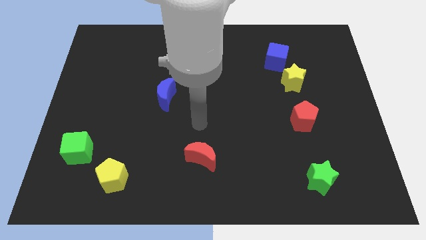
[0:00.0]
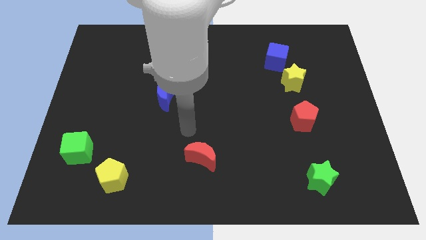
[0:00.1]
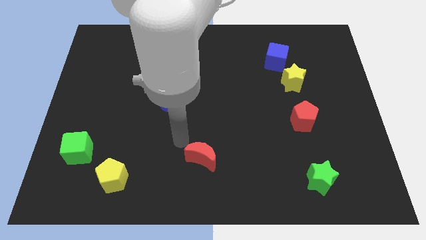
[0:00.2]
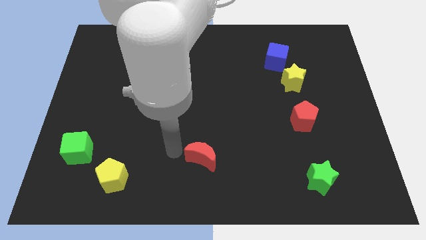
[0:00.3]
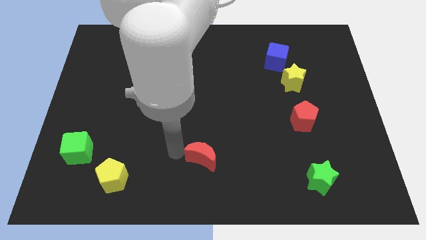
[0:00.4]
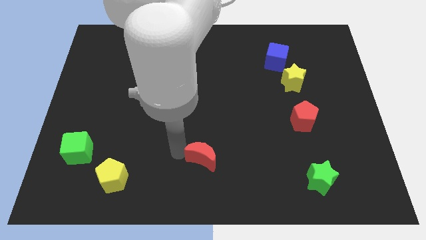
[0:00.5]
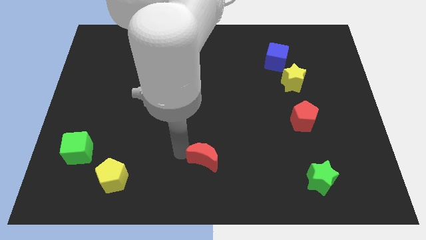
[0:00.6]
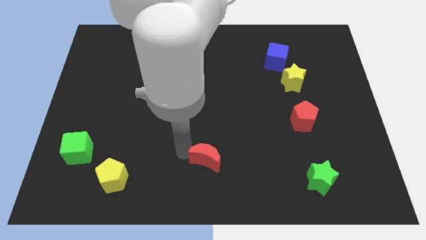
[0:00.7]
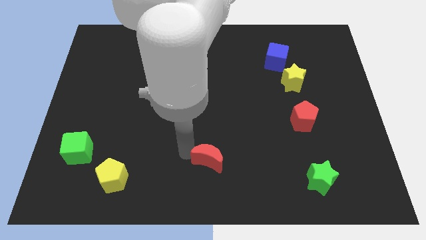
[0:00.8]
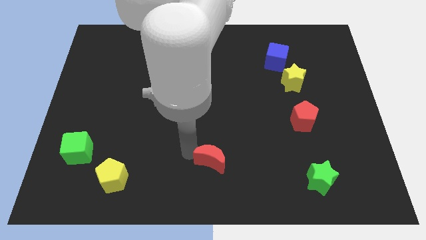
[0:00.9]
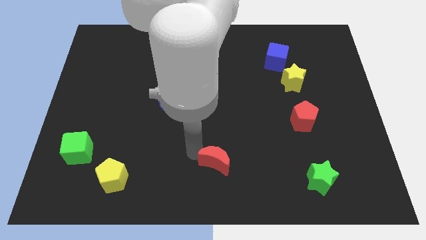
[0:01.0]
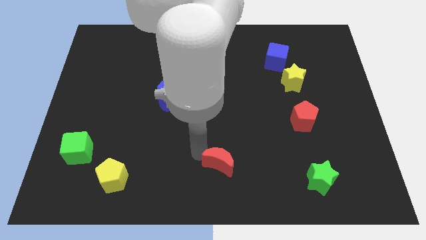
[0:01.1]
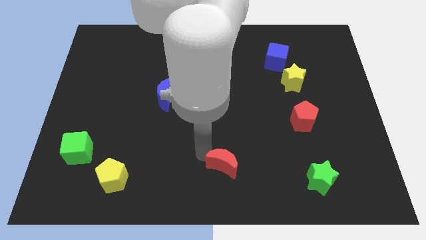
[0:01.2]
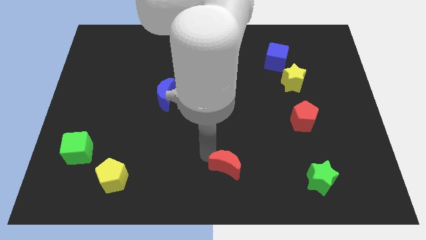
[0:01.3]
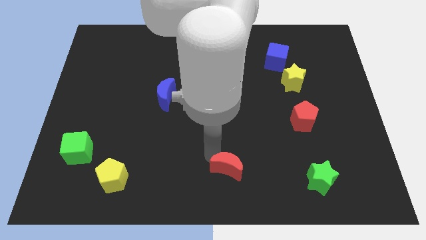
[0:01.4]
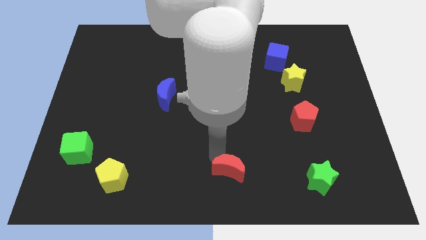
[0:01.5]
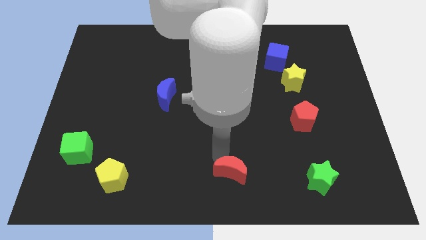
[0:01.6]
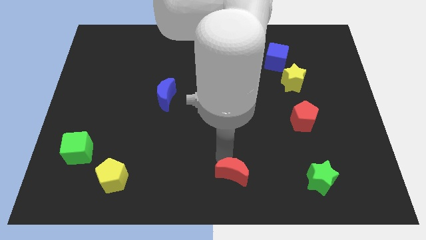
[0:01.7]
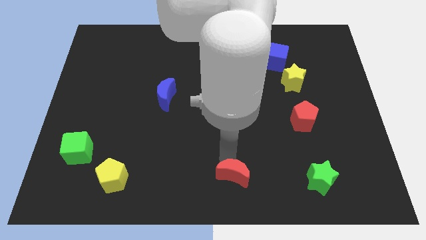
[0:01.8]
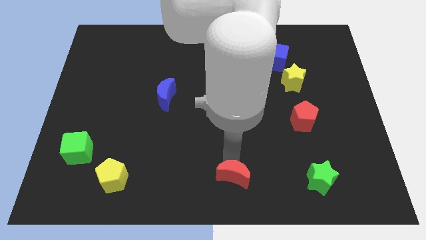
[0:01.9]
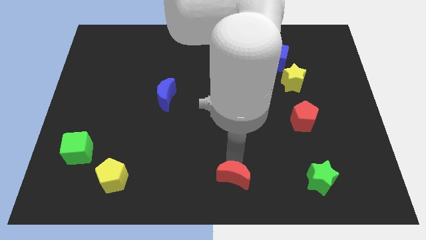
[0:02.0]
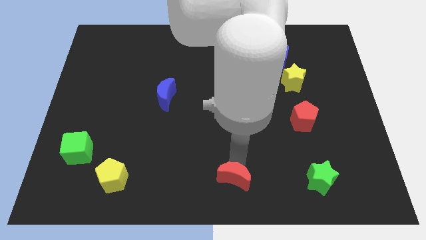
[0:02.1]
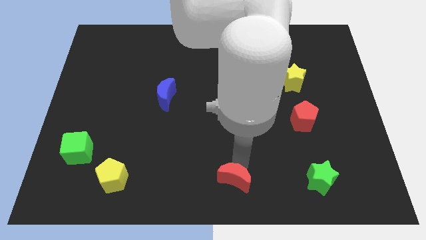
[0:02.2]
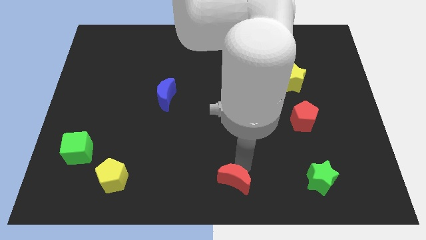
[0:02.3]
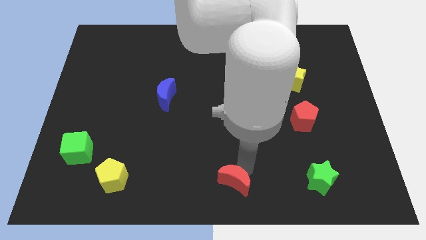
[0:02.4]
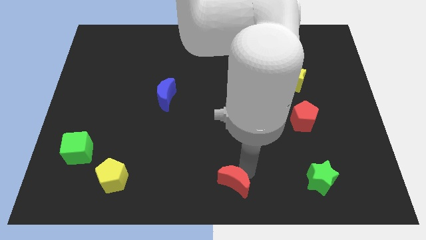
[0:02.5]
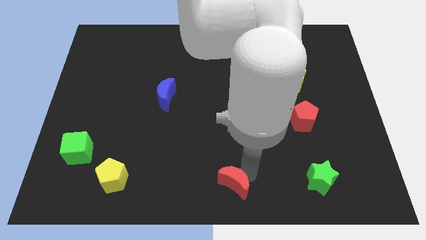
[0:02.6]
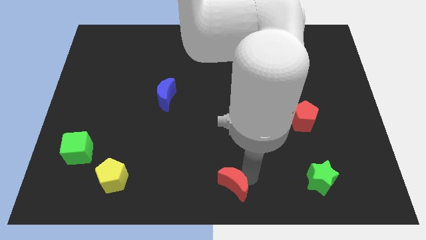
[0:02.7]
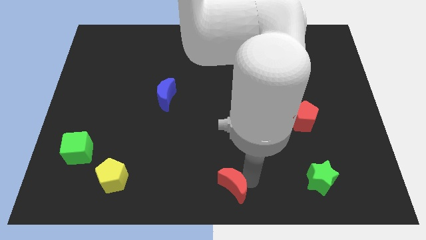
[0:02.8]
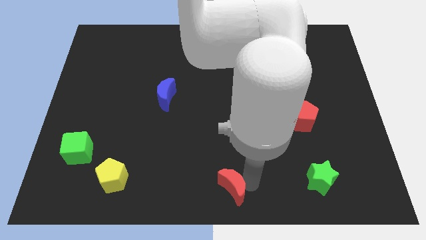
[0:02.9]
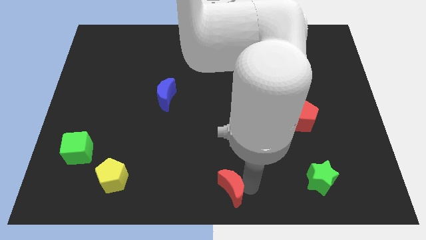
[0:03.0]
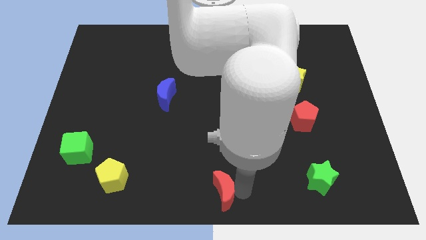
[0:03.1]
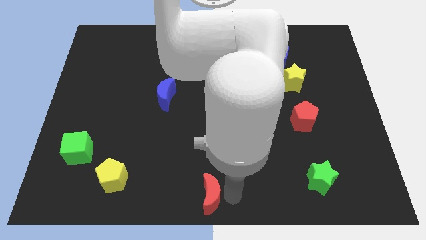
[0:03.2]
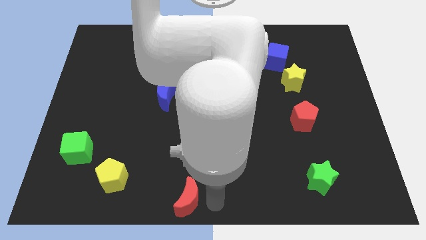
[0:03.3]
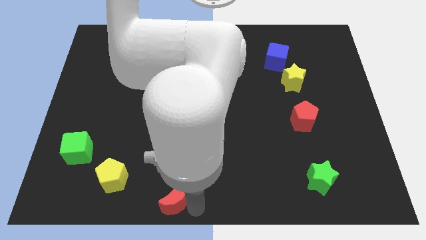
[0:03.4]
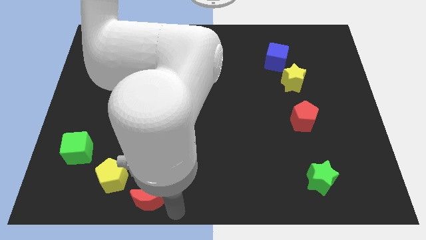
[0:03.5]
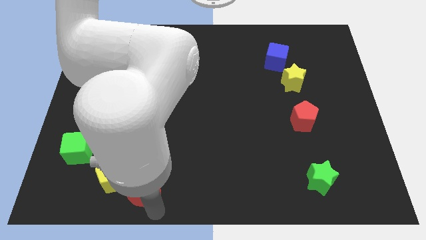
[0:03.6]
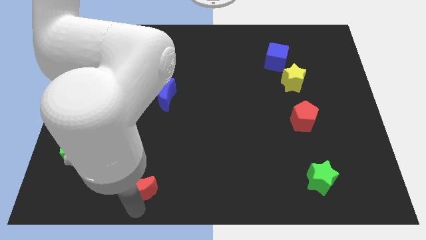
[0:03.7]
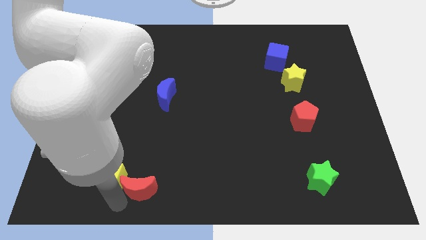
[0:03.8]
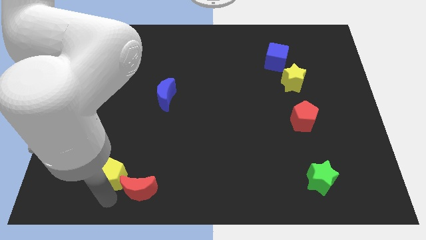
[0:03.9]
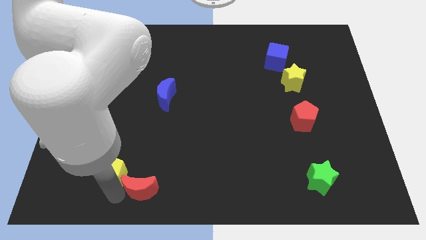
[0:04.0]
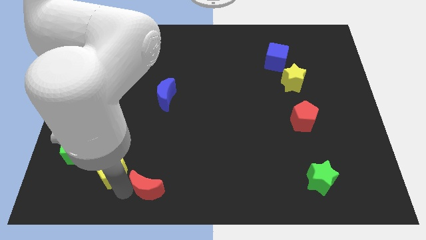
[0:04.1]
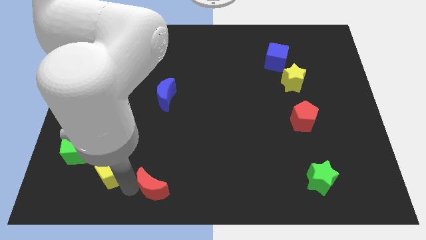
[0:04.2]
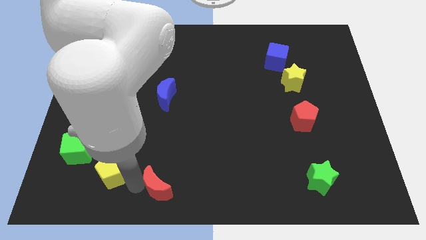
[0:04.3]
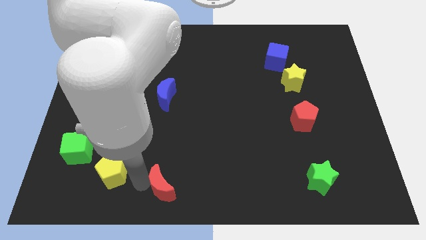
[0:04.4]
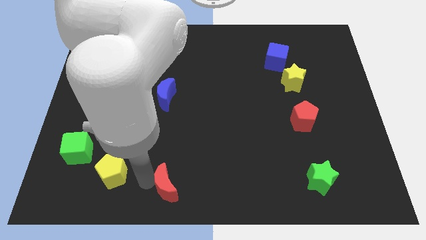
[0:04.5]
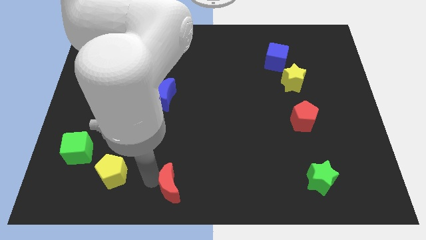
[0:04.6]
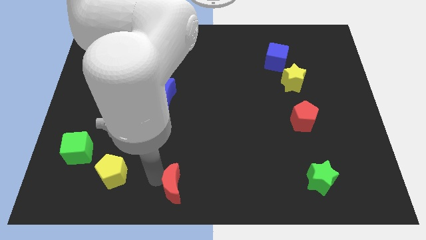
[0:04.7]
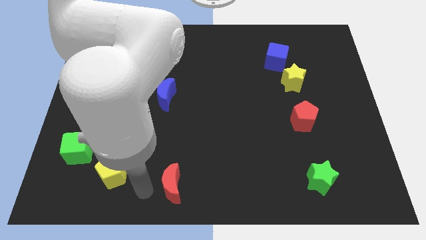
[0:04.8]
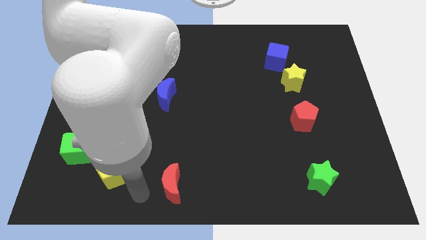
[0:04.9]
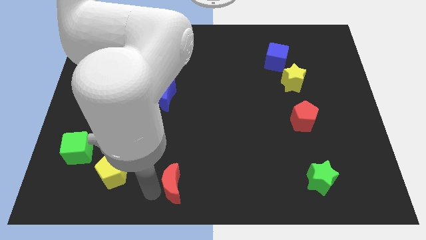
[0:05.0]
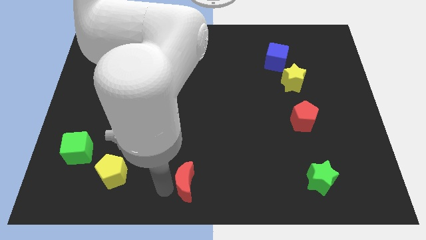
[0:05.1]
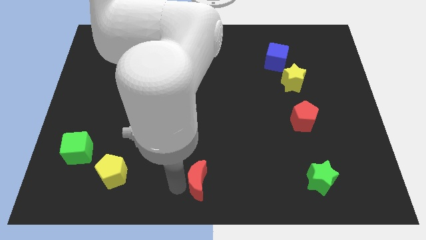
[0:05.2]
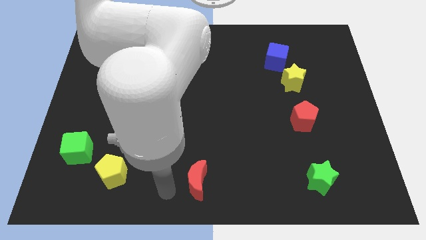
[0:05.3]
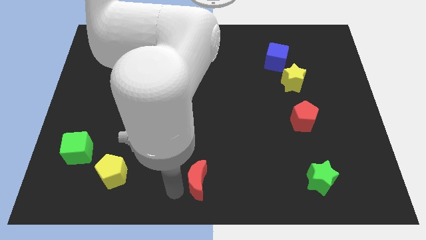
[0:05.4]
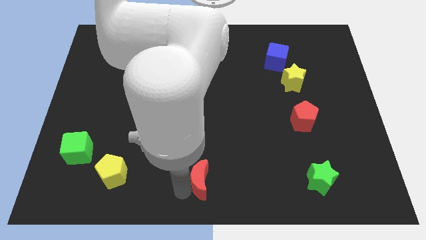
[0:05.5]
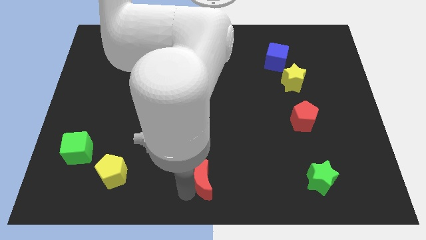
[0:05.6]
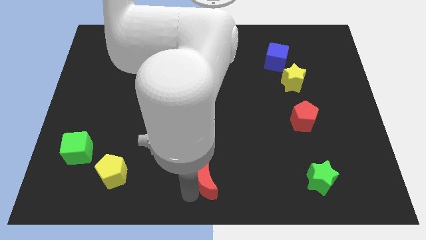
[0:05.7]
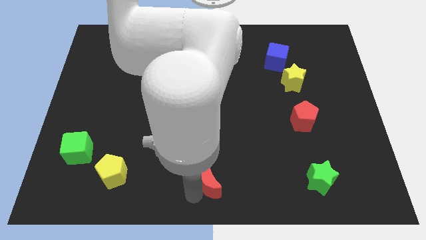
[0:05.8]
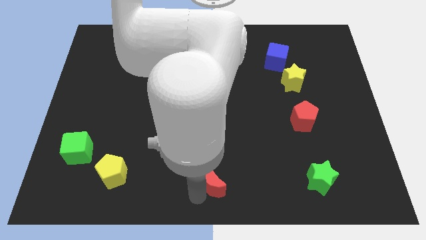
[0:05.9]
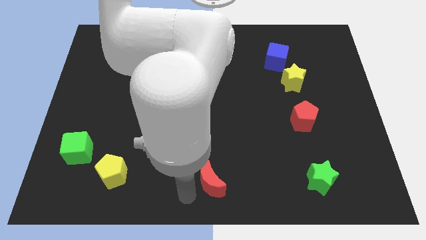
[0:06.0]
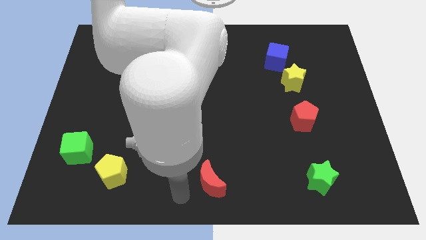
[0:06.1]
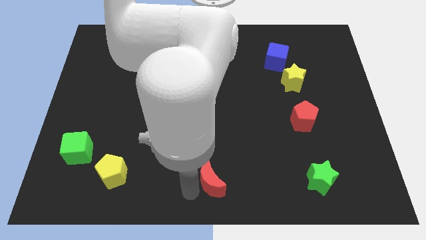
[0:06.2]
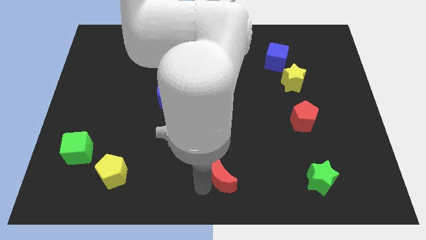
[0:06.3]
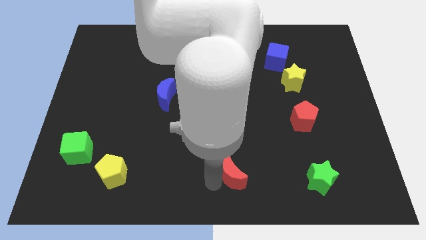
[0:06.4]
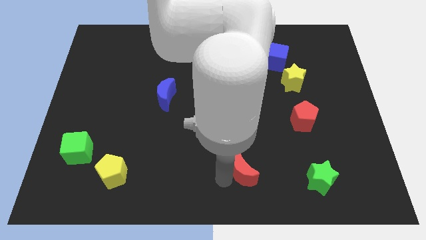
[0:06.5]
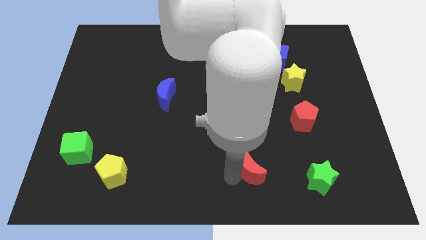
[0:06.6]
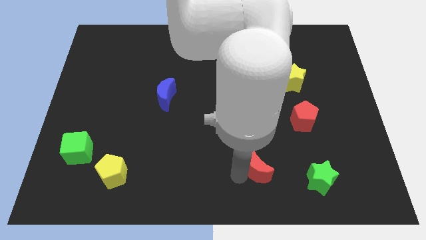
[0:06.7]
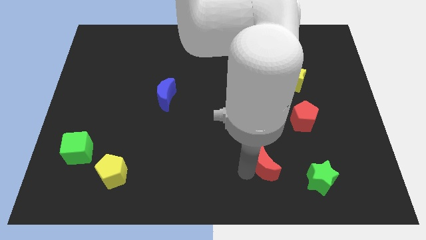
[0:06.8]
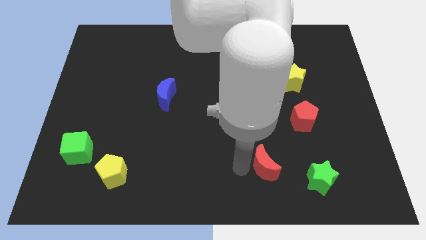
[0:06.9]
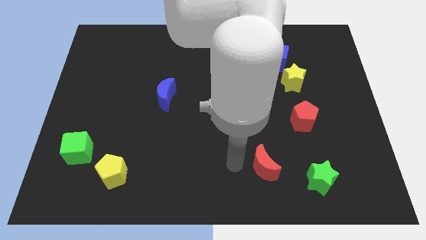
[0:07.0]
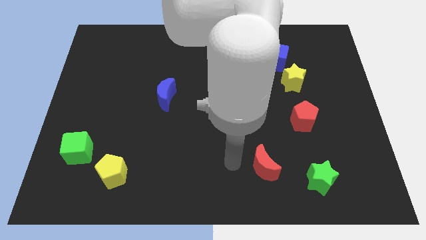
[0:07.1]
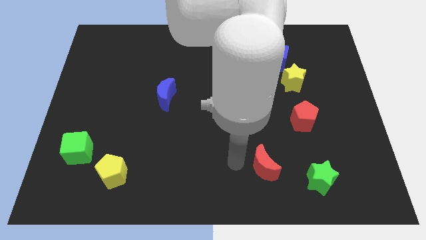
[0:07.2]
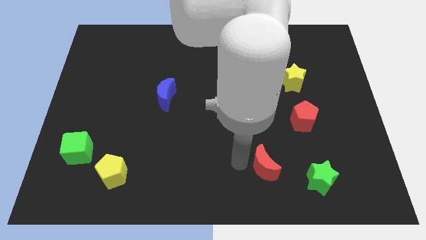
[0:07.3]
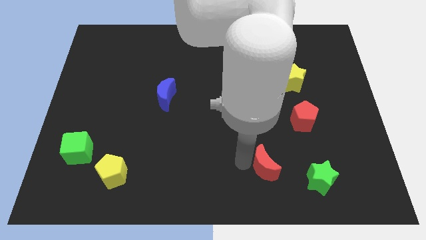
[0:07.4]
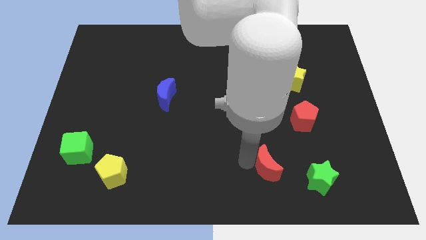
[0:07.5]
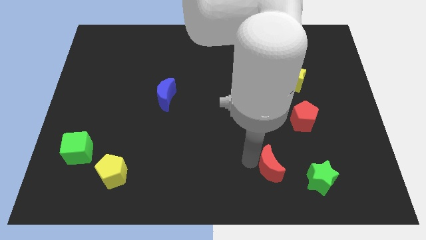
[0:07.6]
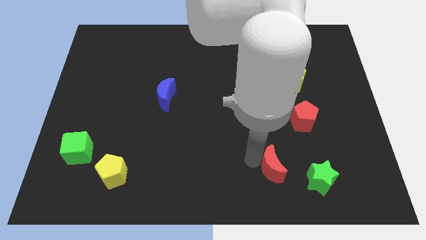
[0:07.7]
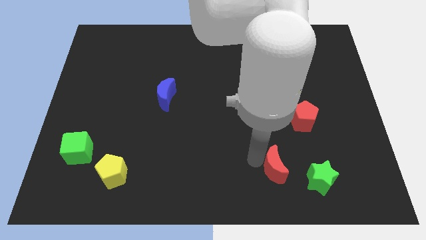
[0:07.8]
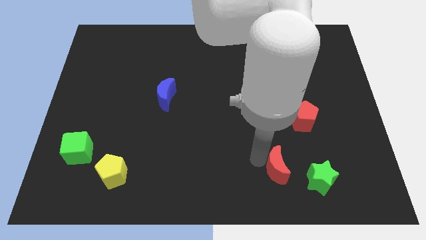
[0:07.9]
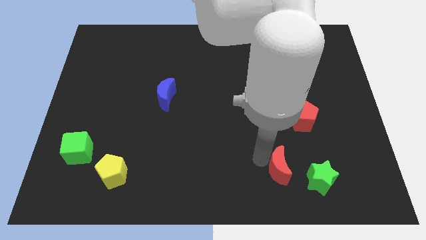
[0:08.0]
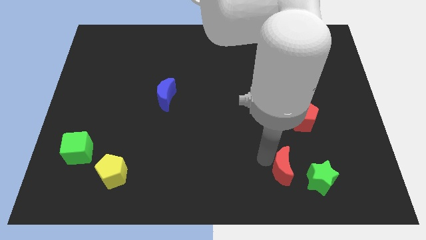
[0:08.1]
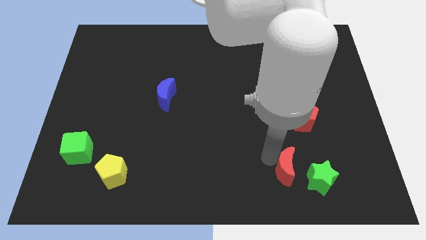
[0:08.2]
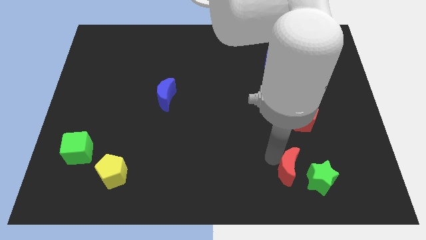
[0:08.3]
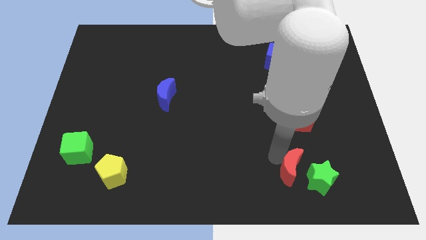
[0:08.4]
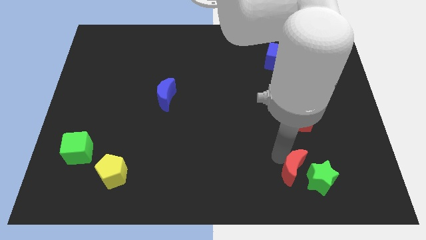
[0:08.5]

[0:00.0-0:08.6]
move the red moon close to the green star
